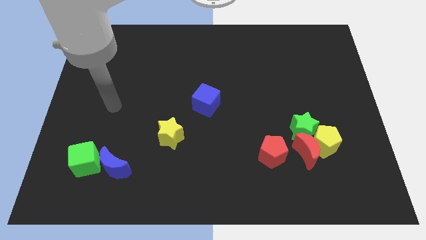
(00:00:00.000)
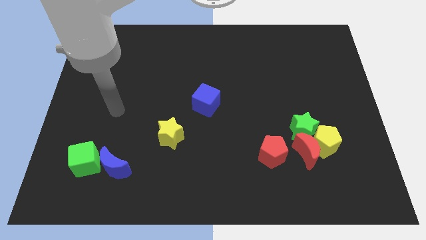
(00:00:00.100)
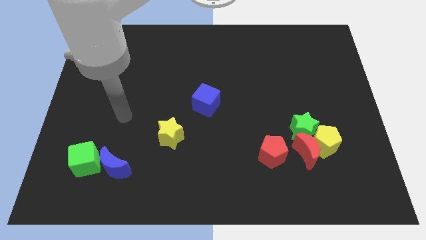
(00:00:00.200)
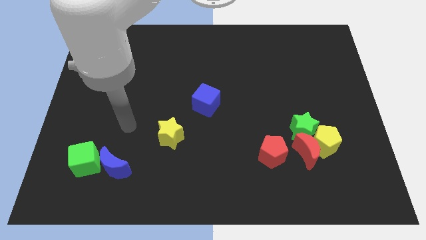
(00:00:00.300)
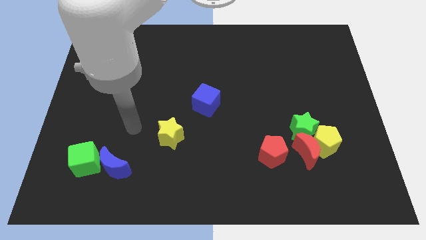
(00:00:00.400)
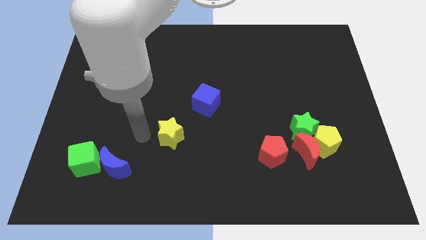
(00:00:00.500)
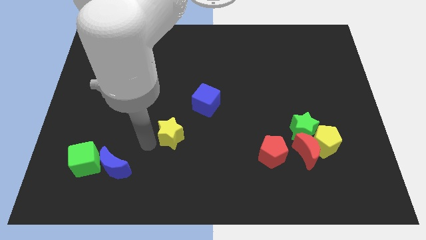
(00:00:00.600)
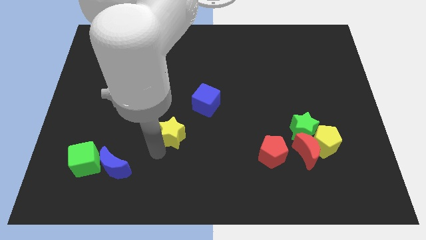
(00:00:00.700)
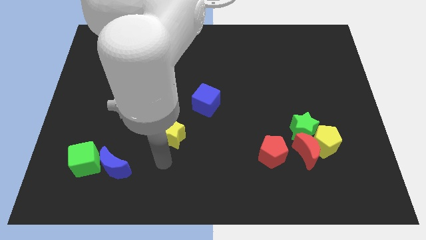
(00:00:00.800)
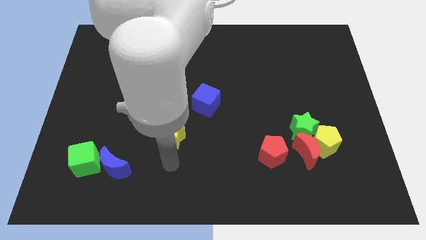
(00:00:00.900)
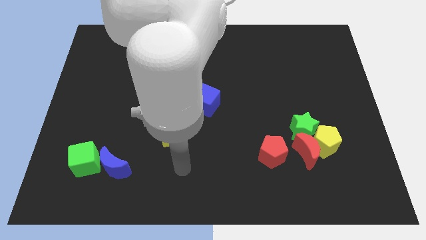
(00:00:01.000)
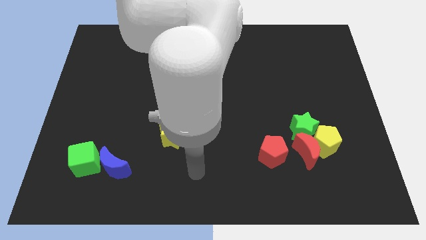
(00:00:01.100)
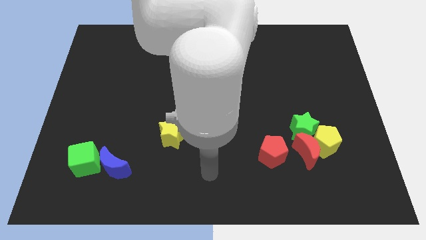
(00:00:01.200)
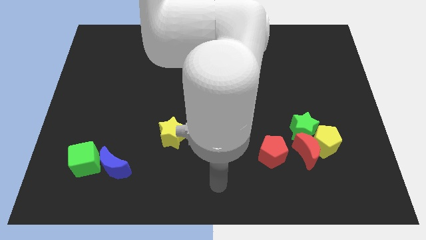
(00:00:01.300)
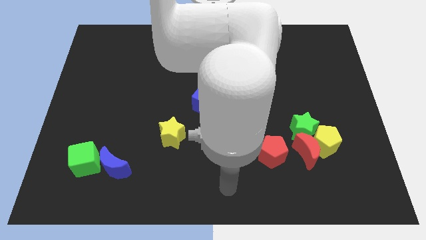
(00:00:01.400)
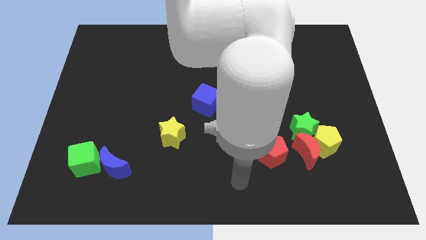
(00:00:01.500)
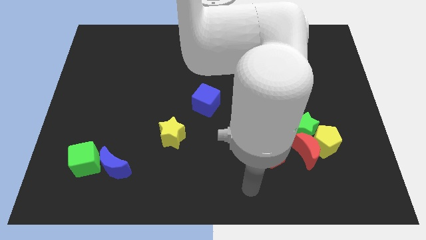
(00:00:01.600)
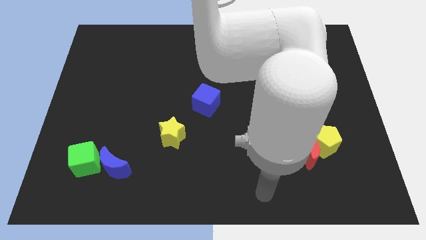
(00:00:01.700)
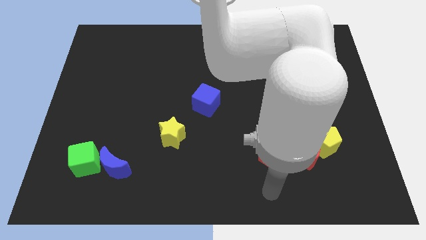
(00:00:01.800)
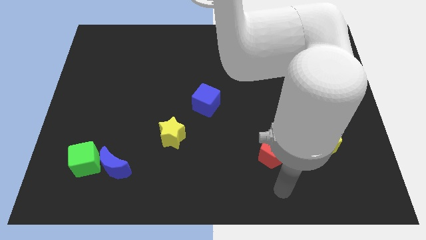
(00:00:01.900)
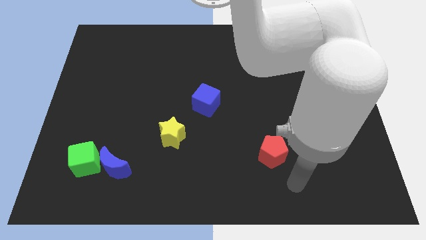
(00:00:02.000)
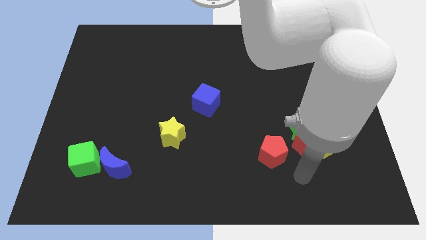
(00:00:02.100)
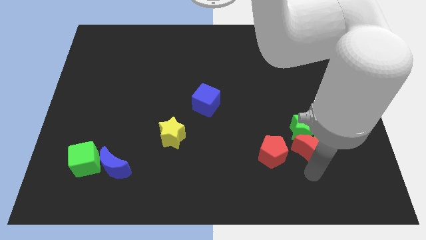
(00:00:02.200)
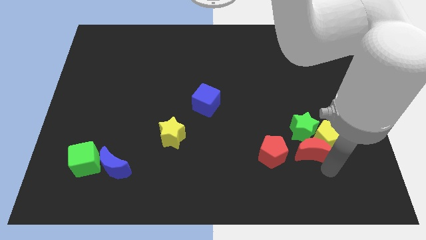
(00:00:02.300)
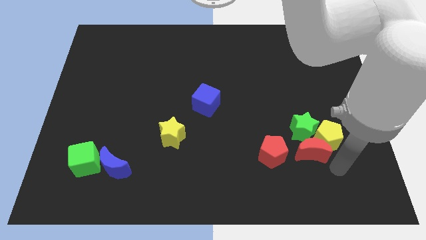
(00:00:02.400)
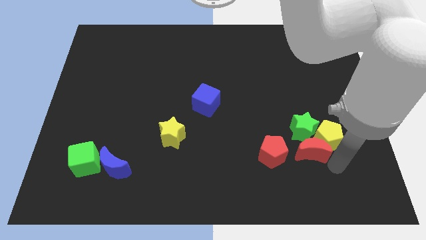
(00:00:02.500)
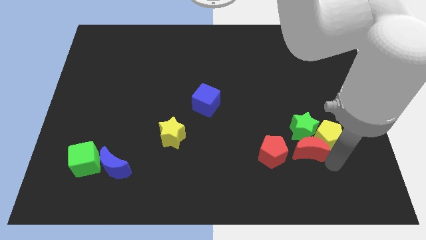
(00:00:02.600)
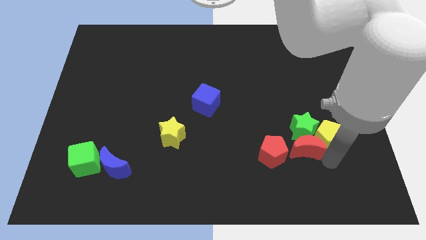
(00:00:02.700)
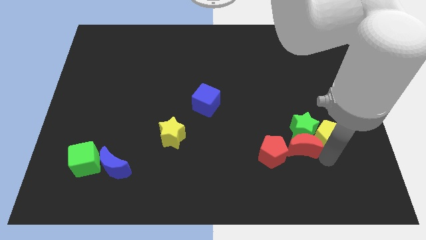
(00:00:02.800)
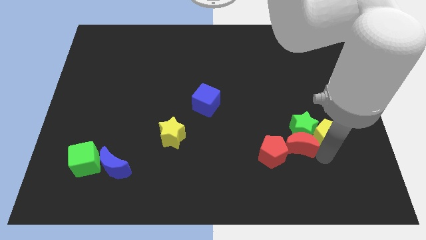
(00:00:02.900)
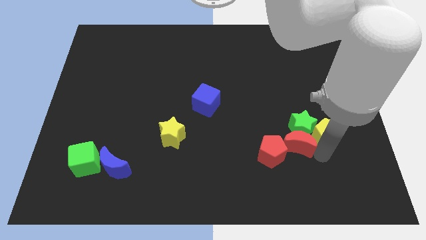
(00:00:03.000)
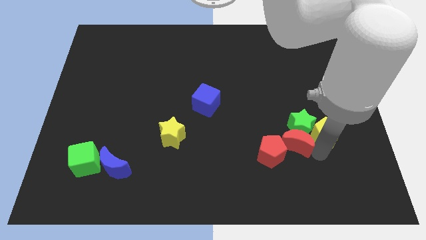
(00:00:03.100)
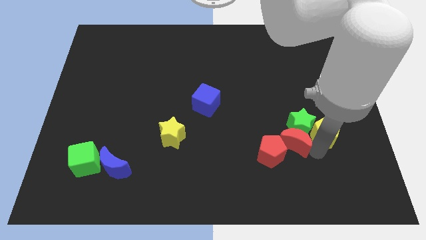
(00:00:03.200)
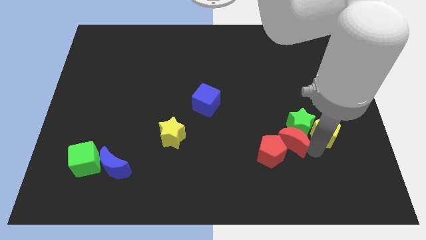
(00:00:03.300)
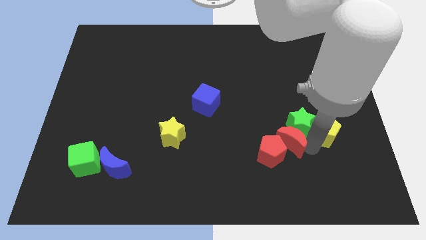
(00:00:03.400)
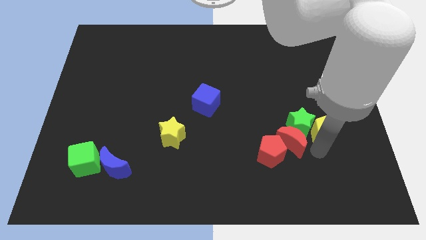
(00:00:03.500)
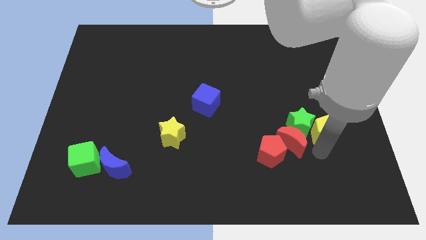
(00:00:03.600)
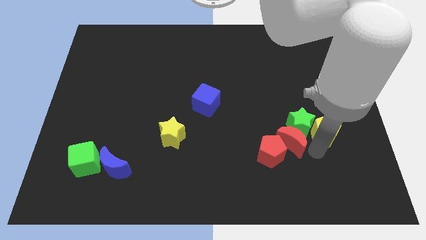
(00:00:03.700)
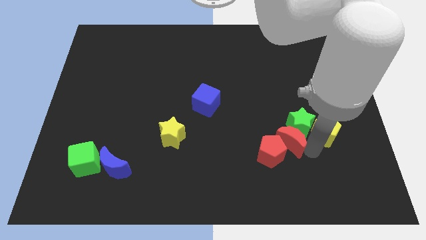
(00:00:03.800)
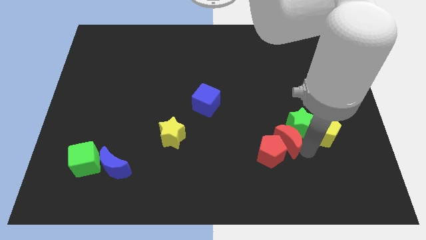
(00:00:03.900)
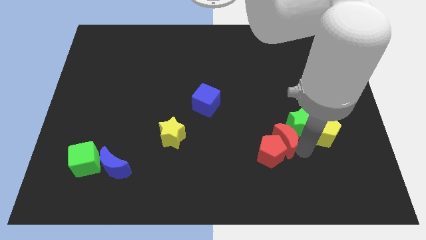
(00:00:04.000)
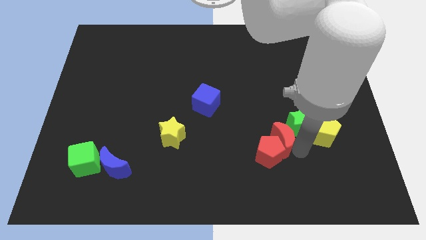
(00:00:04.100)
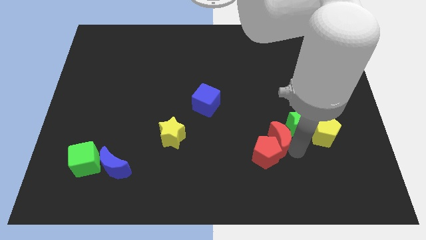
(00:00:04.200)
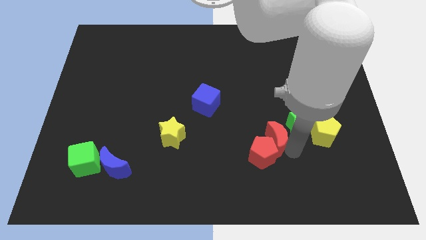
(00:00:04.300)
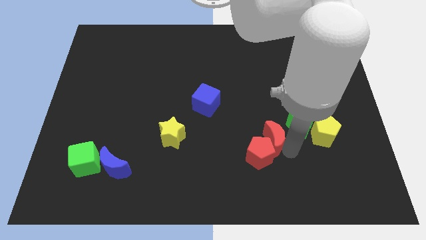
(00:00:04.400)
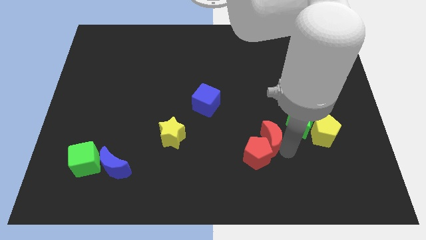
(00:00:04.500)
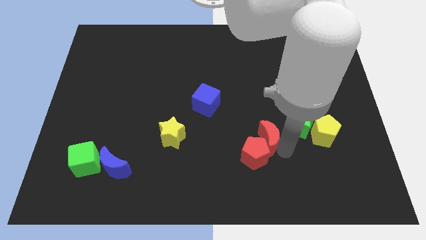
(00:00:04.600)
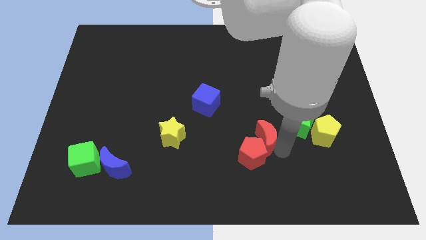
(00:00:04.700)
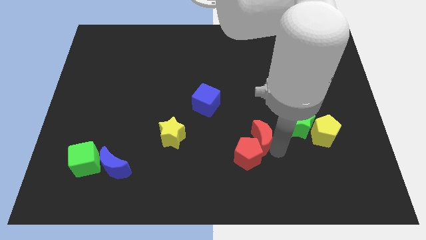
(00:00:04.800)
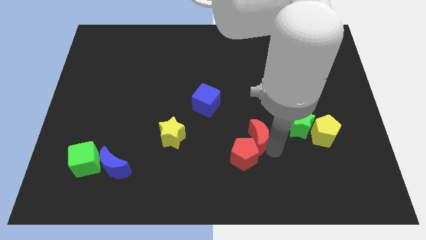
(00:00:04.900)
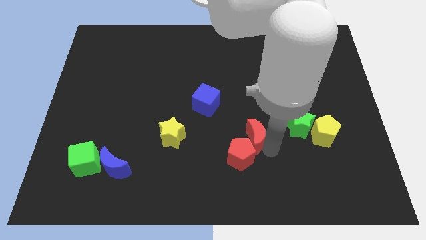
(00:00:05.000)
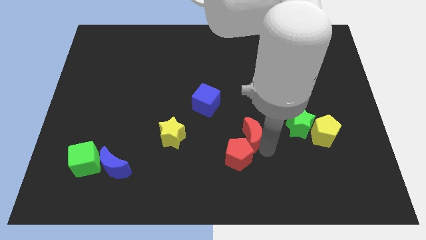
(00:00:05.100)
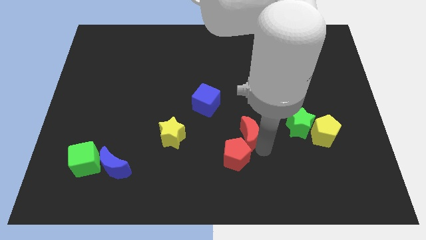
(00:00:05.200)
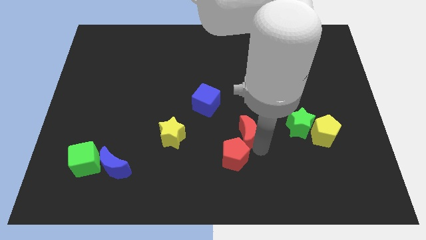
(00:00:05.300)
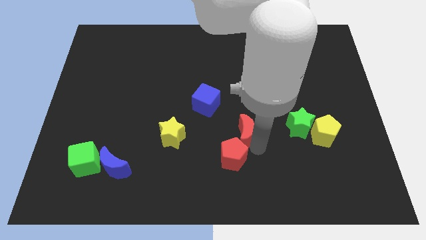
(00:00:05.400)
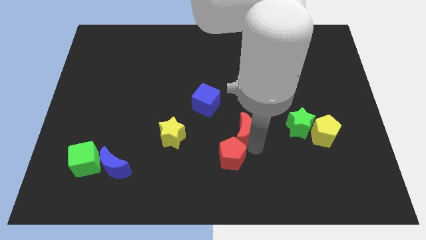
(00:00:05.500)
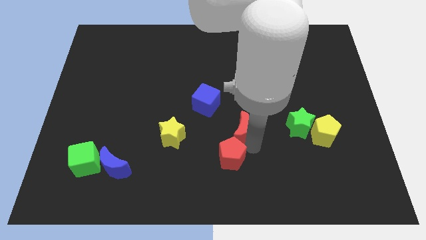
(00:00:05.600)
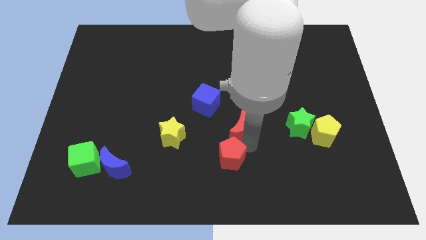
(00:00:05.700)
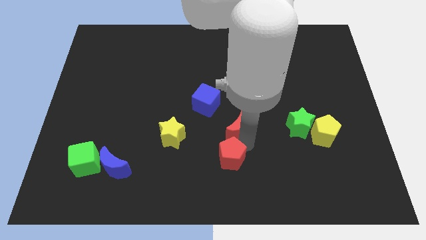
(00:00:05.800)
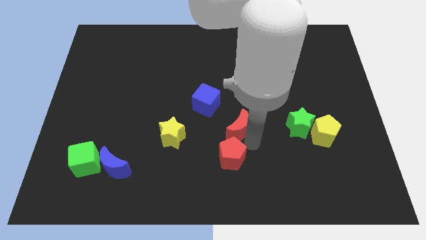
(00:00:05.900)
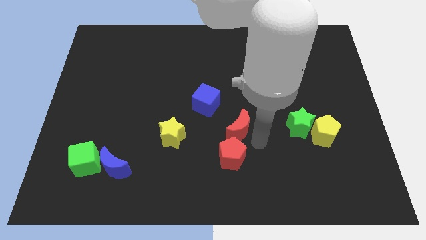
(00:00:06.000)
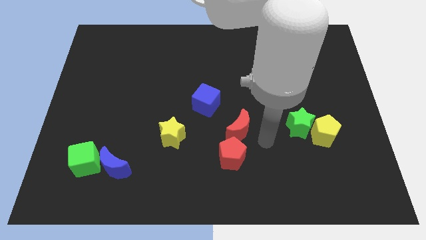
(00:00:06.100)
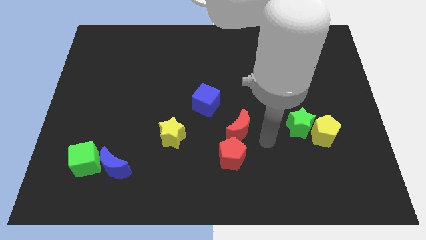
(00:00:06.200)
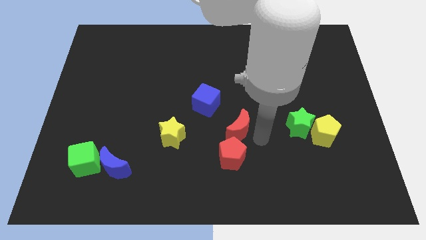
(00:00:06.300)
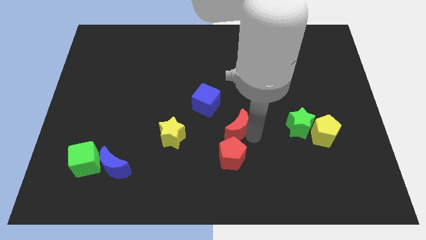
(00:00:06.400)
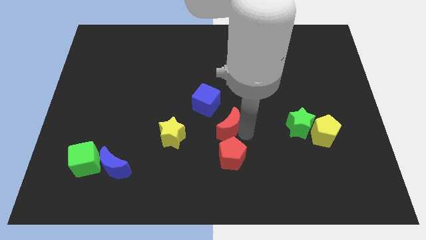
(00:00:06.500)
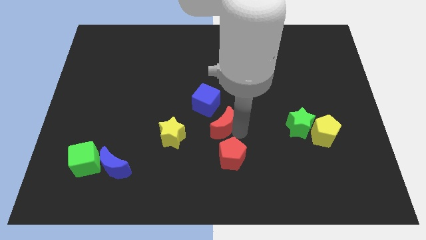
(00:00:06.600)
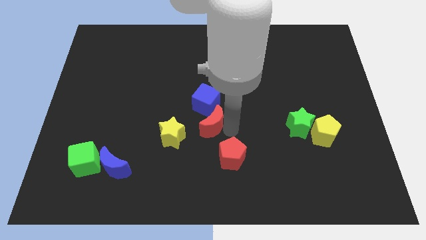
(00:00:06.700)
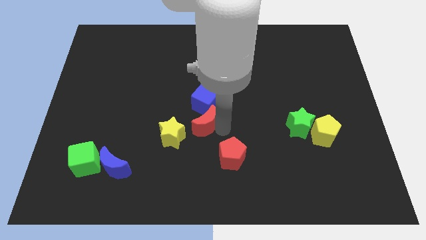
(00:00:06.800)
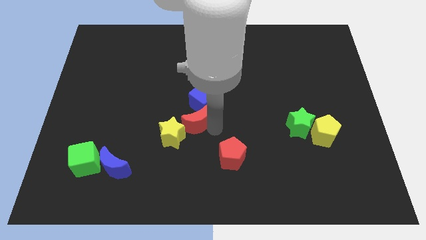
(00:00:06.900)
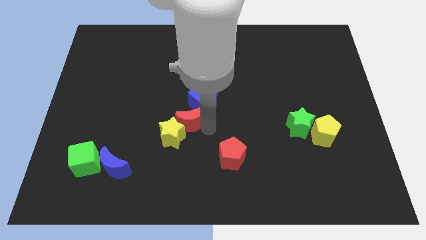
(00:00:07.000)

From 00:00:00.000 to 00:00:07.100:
move the red moon to the top of the yellow star

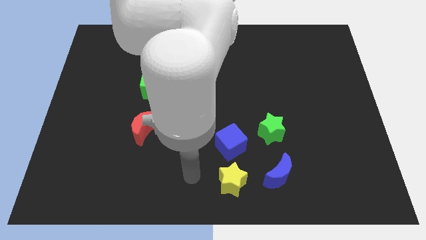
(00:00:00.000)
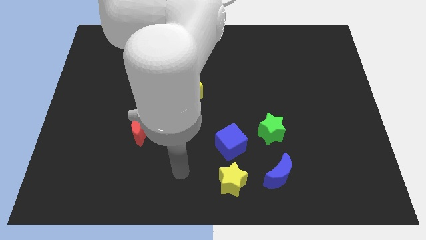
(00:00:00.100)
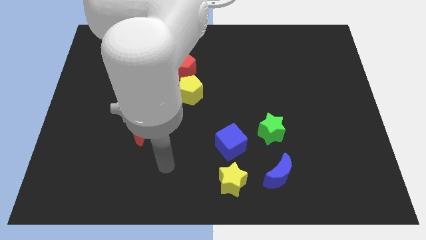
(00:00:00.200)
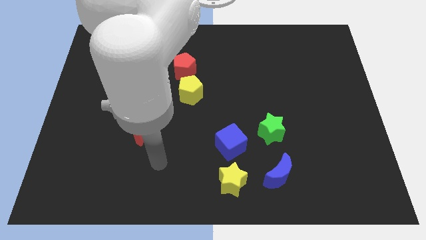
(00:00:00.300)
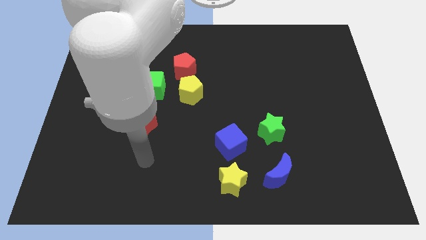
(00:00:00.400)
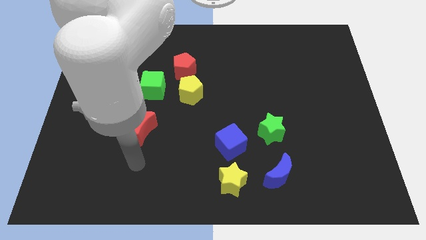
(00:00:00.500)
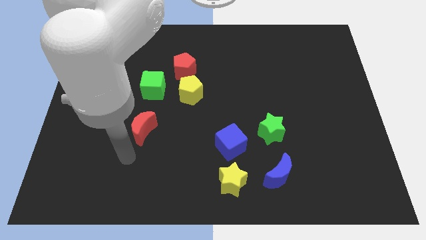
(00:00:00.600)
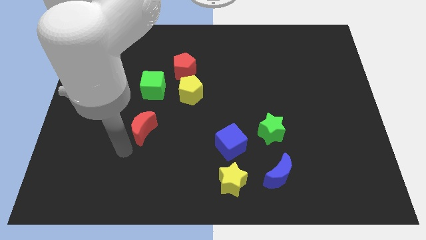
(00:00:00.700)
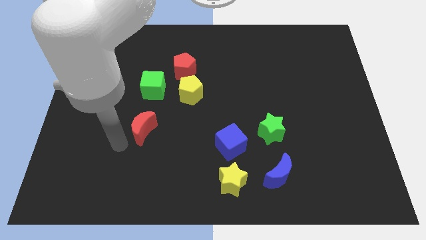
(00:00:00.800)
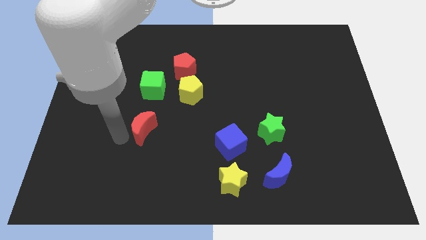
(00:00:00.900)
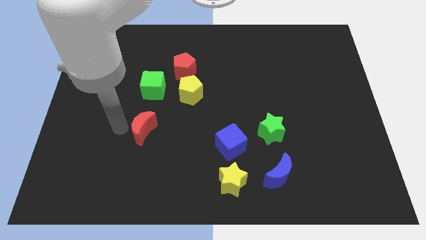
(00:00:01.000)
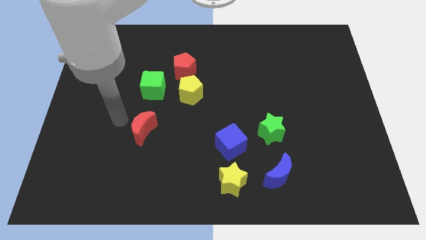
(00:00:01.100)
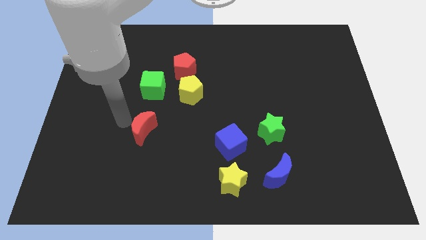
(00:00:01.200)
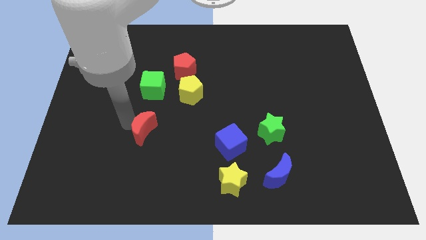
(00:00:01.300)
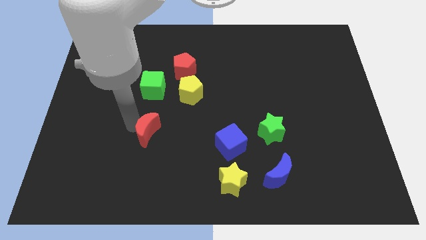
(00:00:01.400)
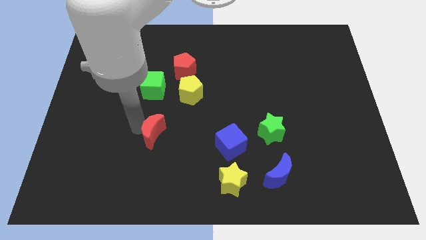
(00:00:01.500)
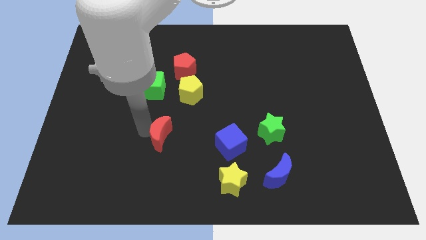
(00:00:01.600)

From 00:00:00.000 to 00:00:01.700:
move the red moon to the left side of the blue cube
